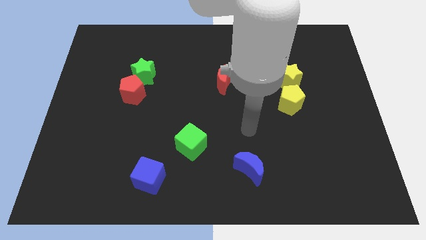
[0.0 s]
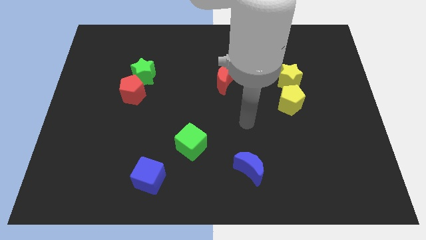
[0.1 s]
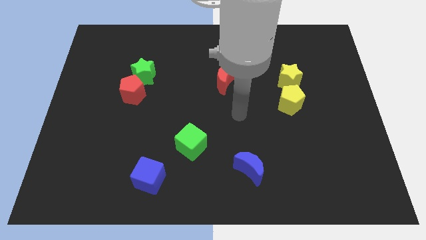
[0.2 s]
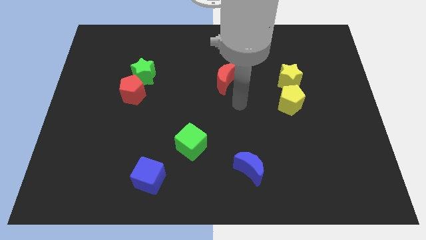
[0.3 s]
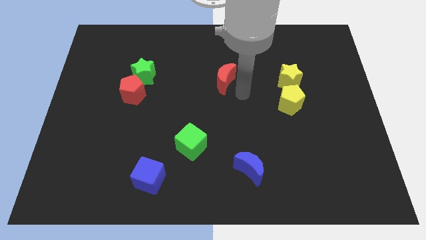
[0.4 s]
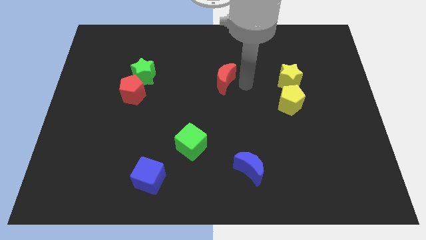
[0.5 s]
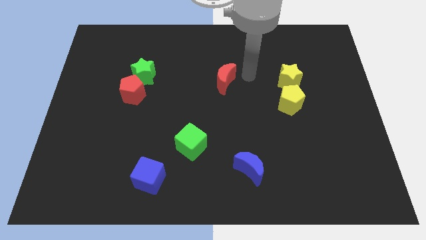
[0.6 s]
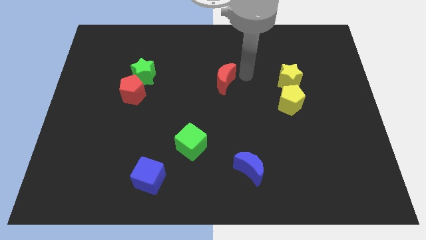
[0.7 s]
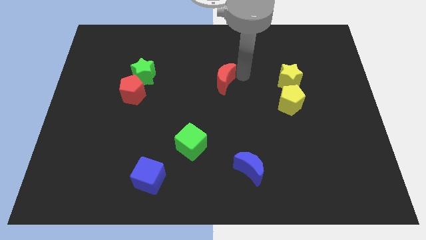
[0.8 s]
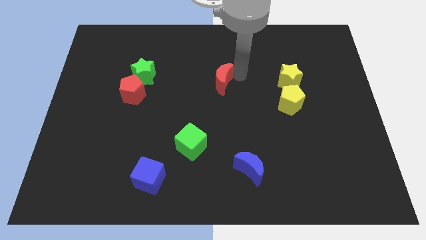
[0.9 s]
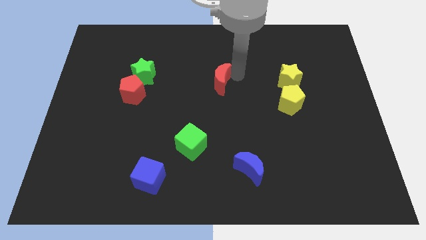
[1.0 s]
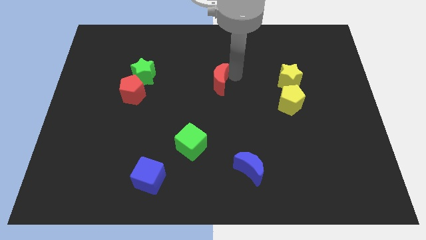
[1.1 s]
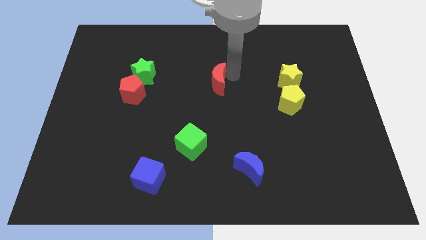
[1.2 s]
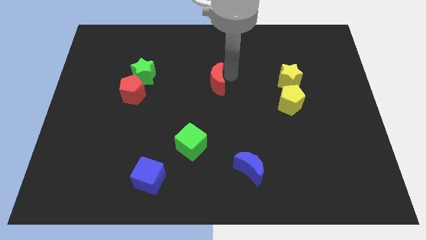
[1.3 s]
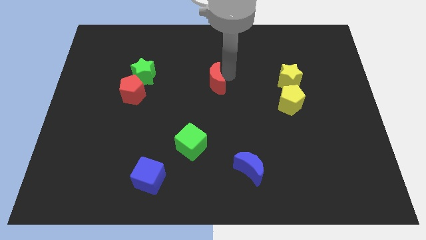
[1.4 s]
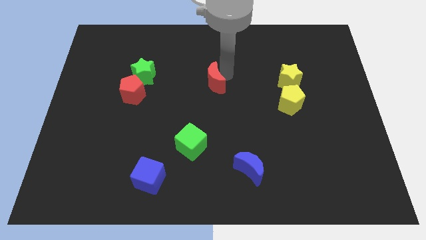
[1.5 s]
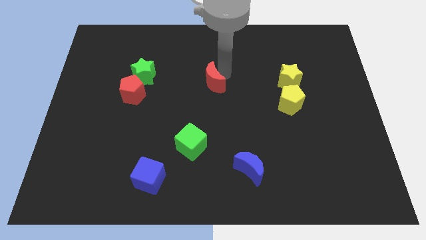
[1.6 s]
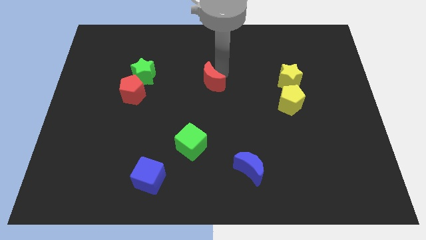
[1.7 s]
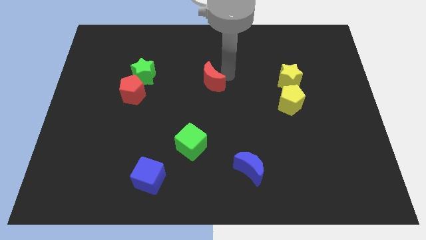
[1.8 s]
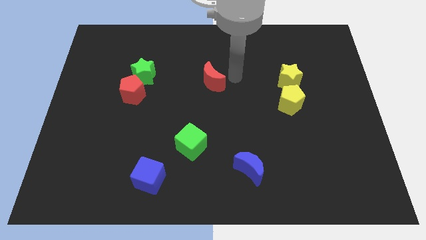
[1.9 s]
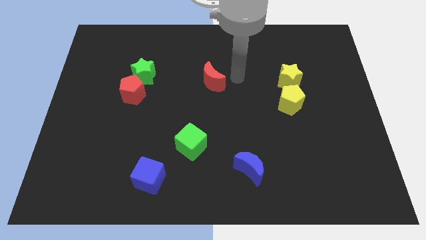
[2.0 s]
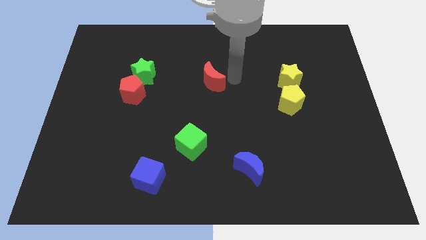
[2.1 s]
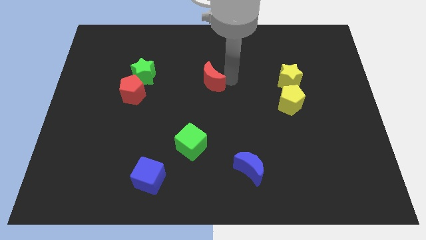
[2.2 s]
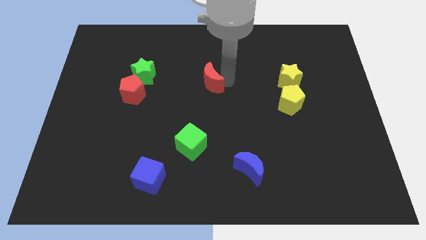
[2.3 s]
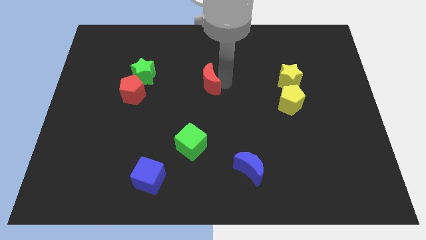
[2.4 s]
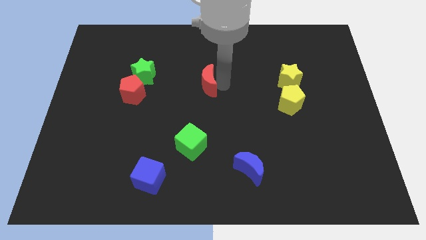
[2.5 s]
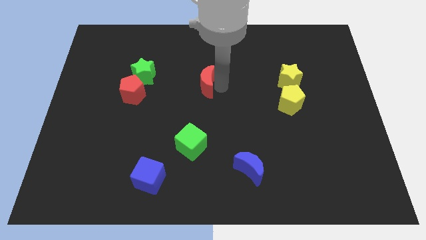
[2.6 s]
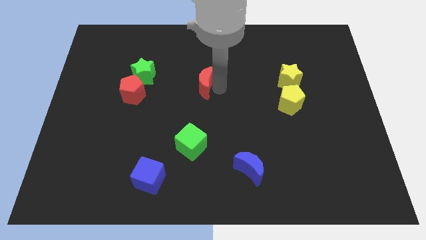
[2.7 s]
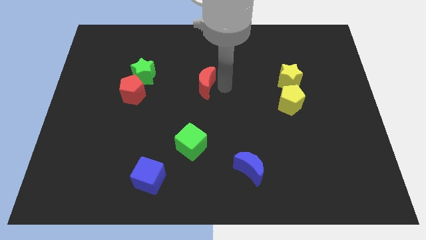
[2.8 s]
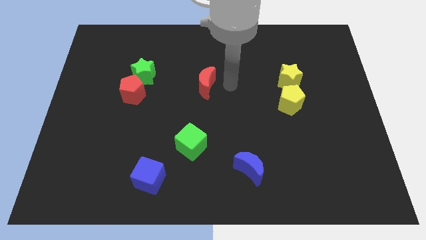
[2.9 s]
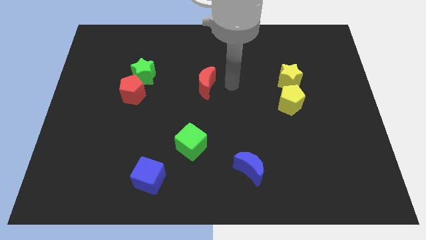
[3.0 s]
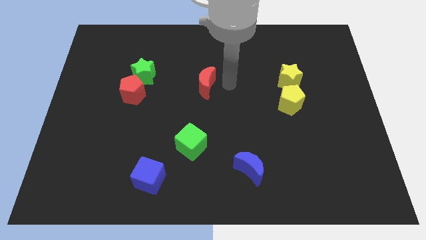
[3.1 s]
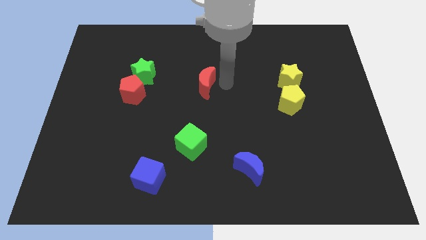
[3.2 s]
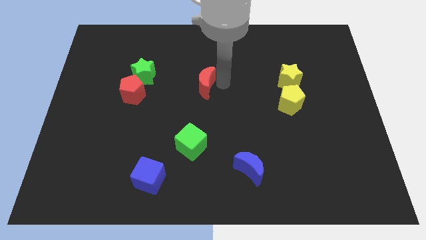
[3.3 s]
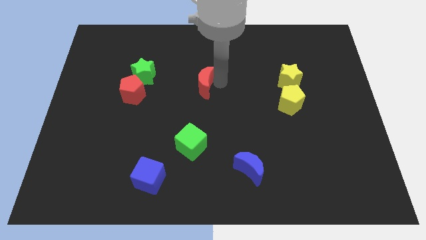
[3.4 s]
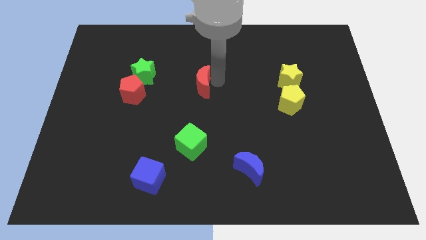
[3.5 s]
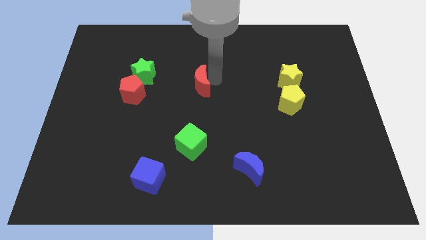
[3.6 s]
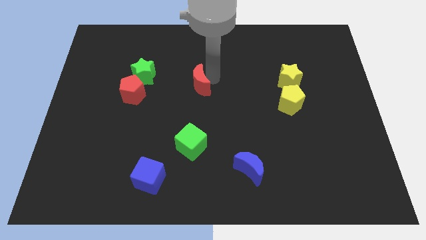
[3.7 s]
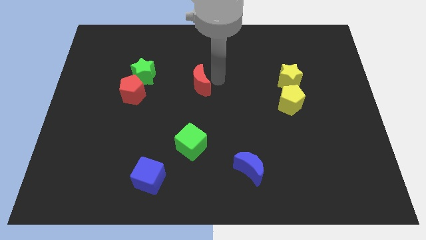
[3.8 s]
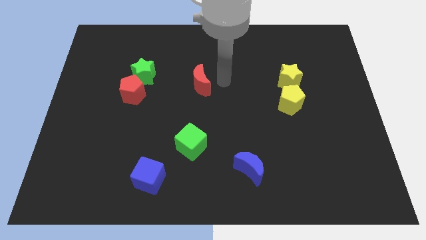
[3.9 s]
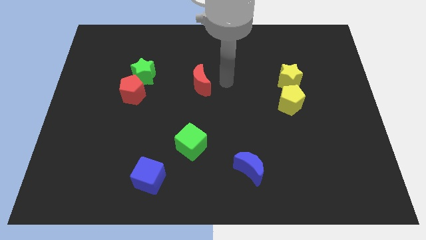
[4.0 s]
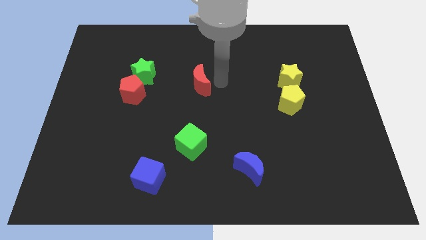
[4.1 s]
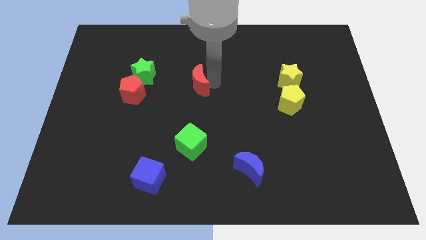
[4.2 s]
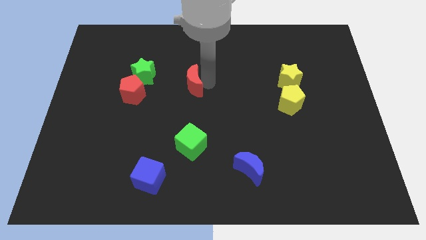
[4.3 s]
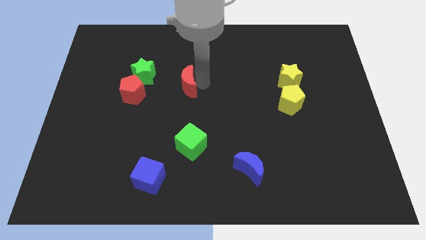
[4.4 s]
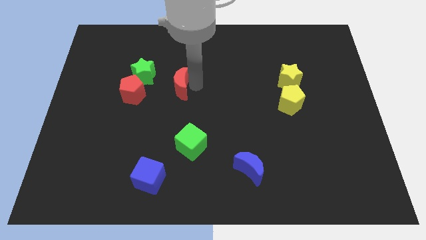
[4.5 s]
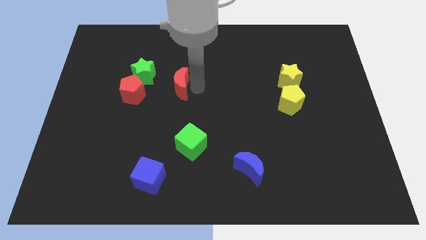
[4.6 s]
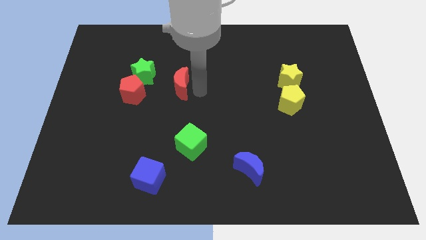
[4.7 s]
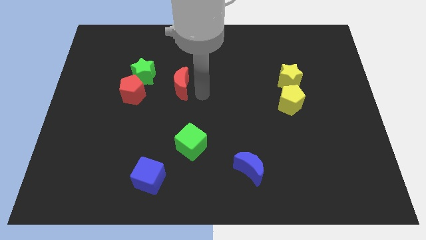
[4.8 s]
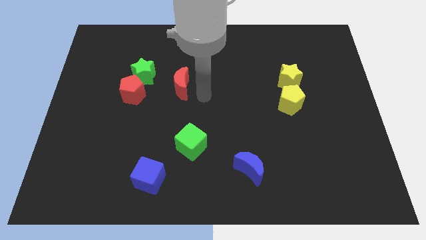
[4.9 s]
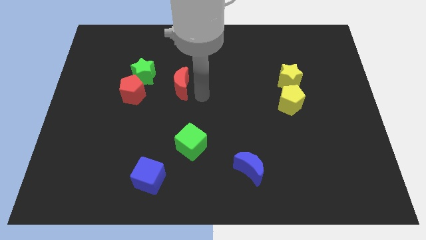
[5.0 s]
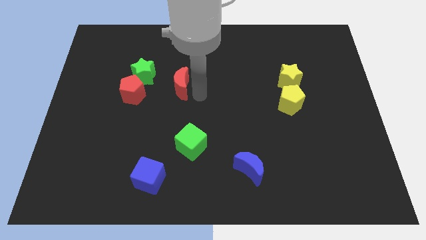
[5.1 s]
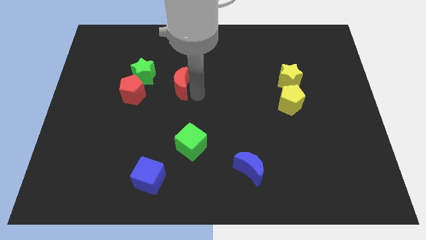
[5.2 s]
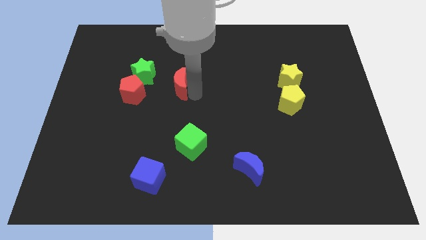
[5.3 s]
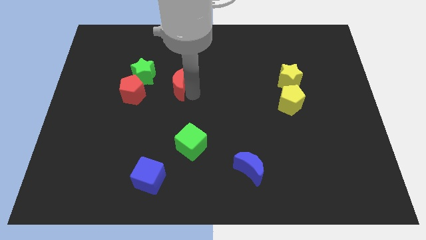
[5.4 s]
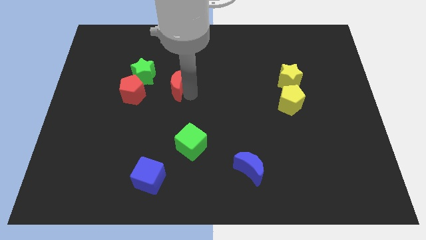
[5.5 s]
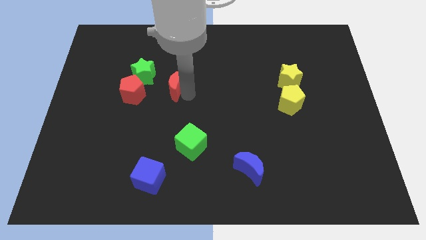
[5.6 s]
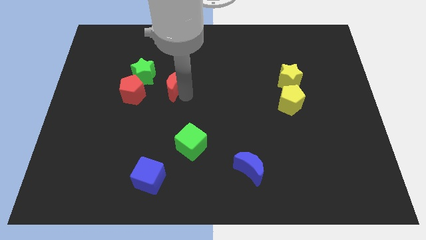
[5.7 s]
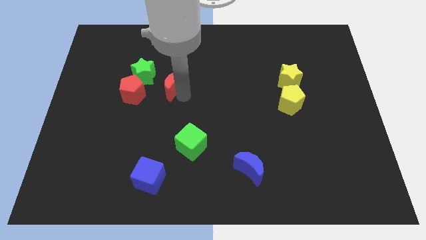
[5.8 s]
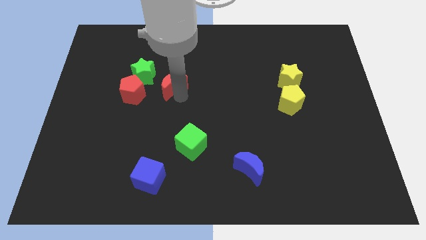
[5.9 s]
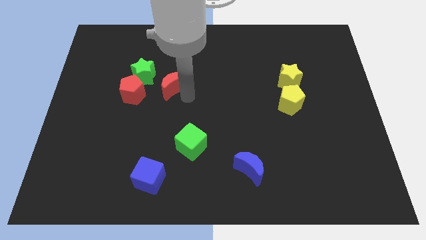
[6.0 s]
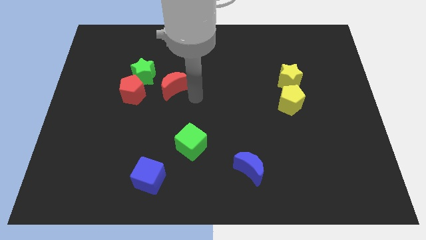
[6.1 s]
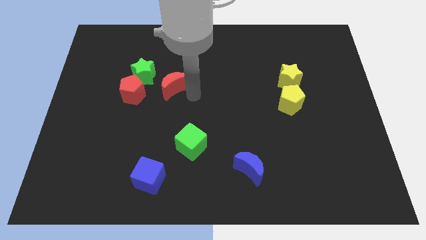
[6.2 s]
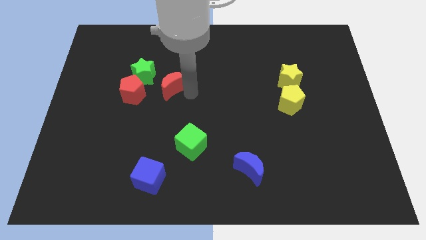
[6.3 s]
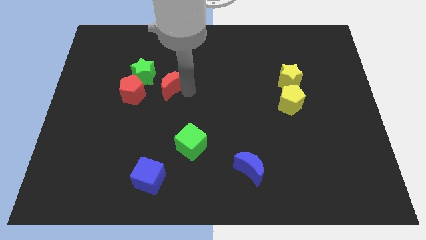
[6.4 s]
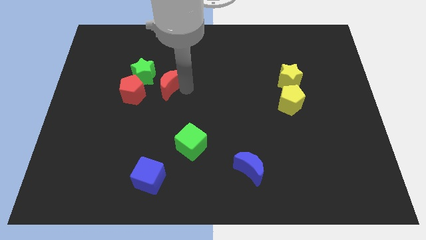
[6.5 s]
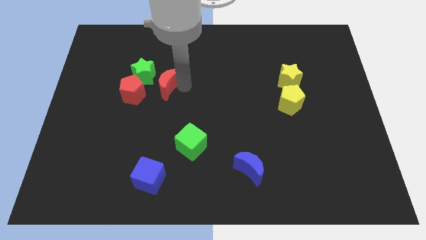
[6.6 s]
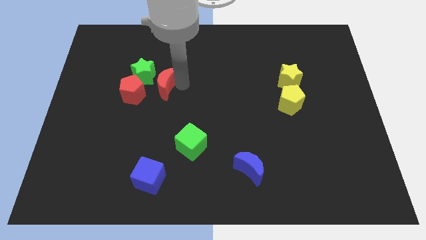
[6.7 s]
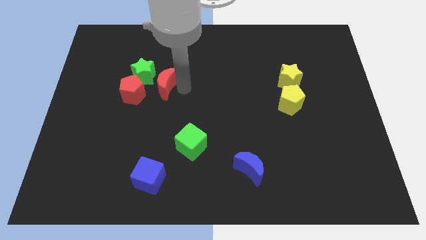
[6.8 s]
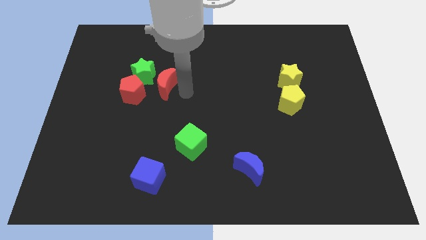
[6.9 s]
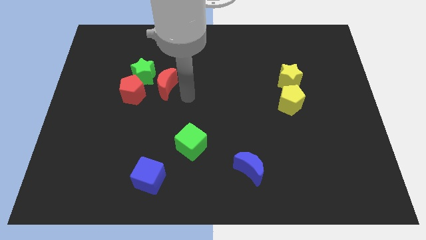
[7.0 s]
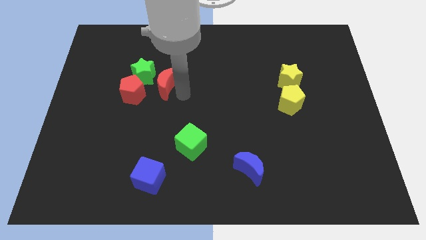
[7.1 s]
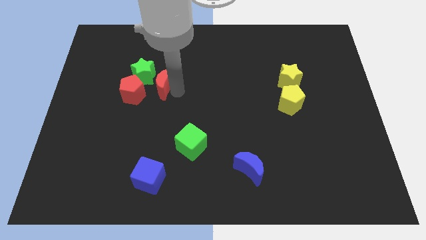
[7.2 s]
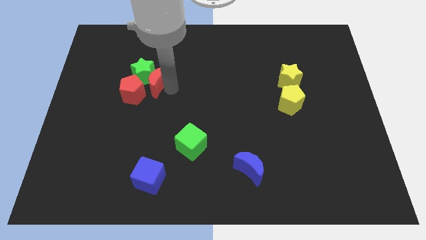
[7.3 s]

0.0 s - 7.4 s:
slide the red moon towards the green star

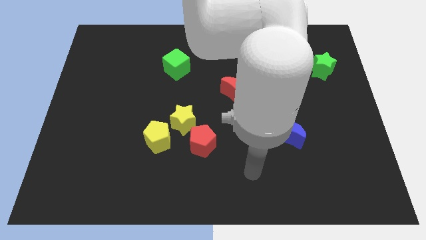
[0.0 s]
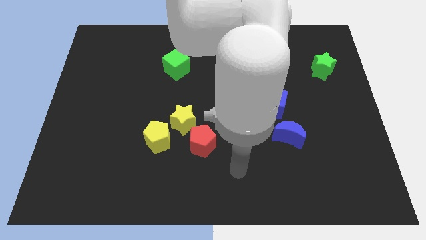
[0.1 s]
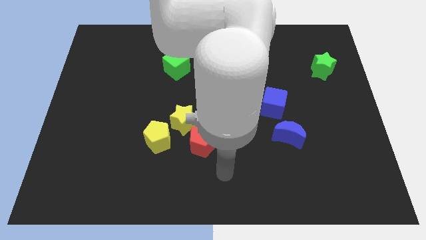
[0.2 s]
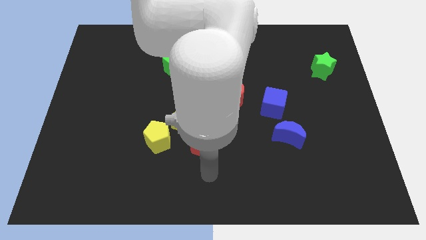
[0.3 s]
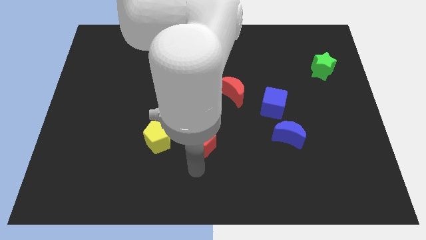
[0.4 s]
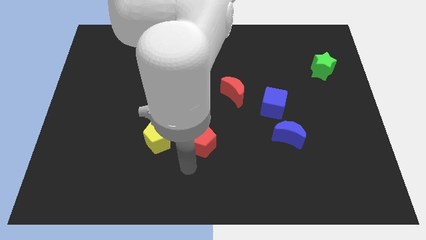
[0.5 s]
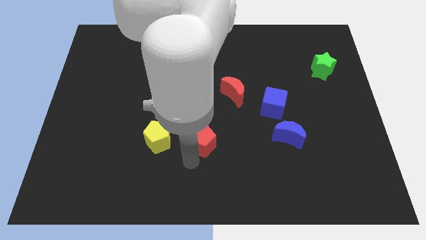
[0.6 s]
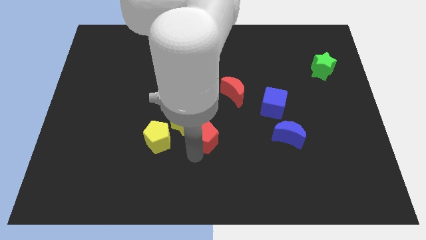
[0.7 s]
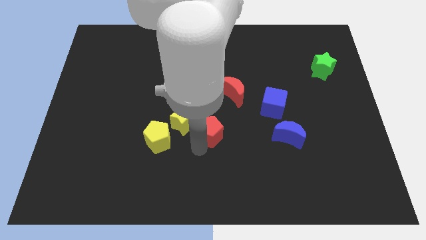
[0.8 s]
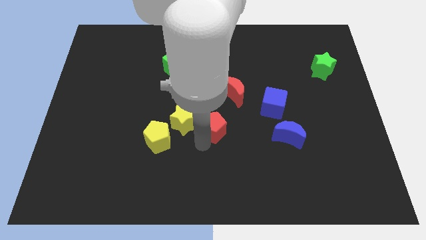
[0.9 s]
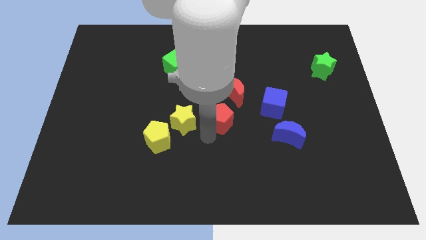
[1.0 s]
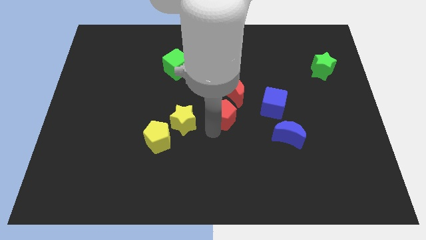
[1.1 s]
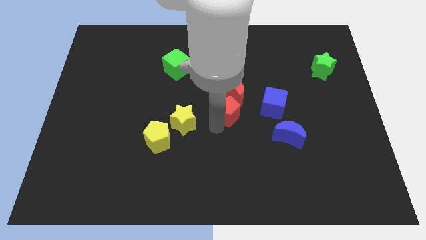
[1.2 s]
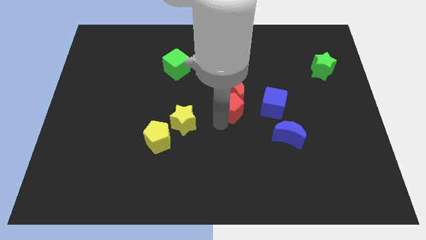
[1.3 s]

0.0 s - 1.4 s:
put the red pentagon to the red moon
